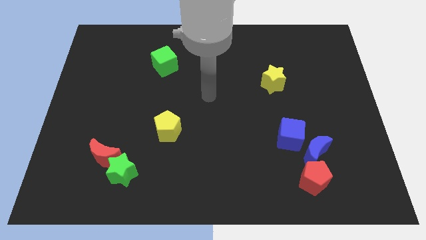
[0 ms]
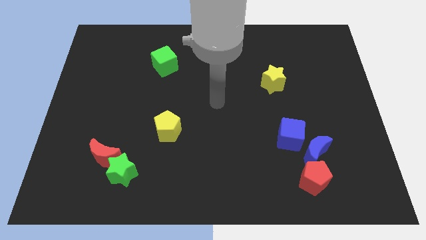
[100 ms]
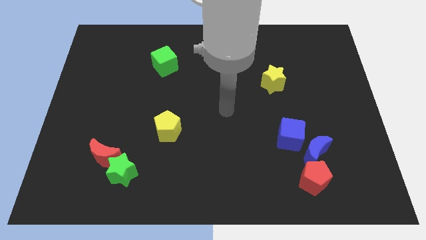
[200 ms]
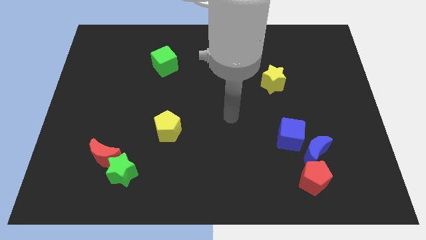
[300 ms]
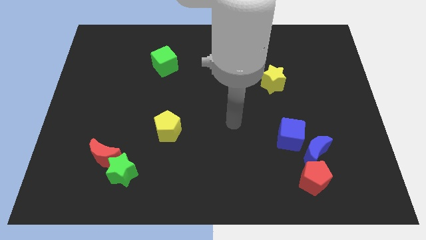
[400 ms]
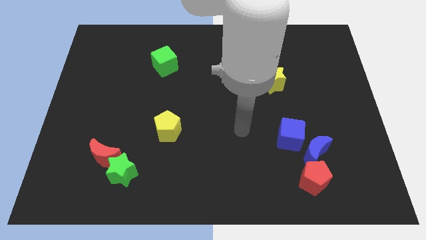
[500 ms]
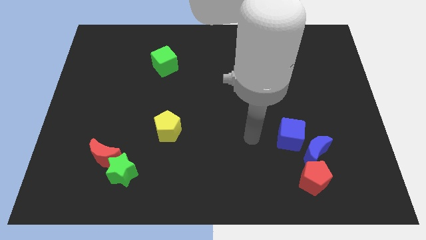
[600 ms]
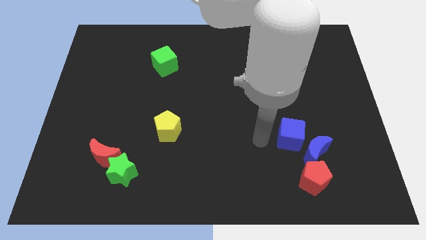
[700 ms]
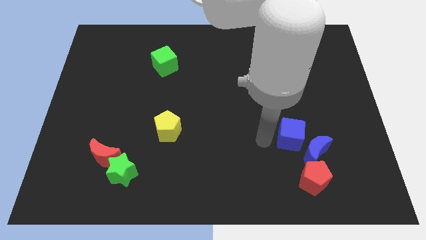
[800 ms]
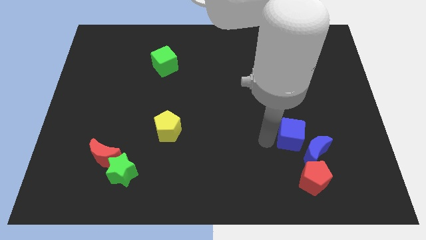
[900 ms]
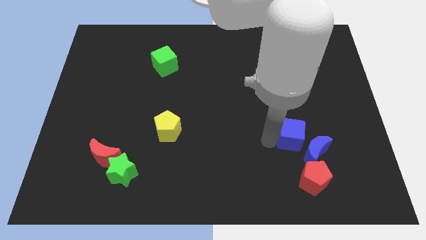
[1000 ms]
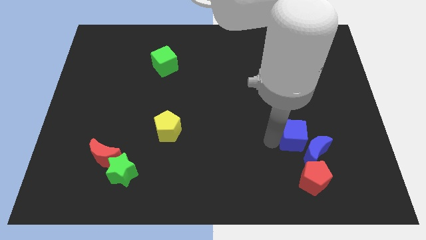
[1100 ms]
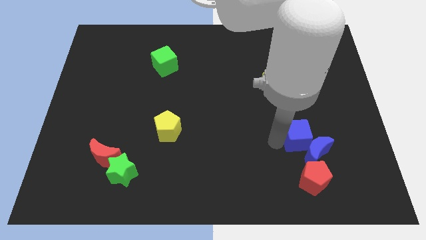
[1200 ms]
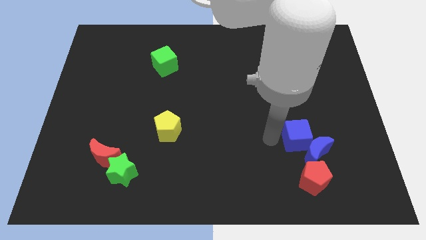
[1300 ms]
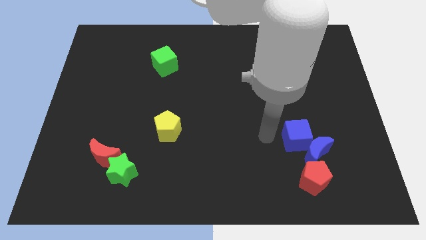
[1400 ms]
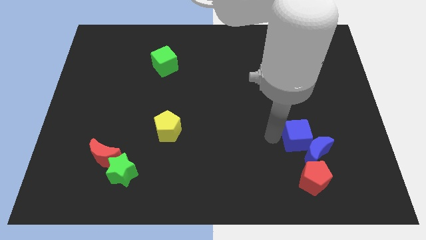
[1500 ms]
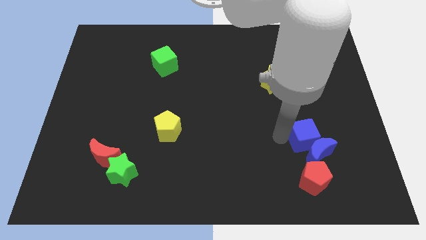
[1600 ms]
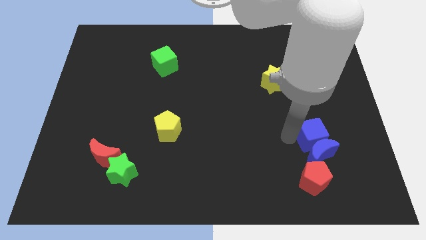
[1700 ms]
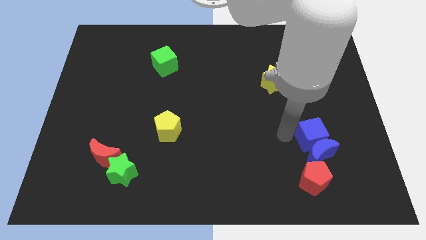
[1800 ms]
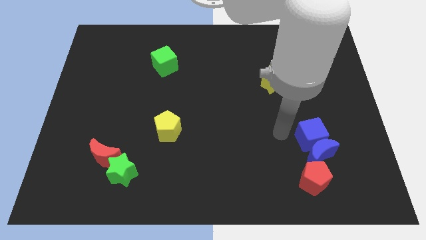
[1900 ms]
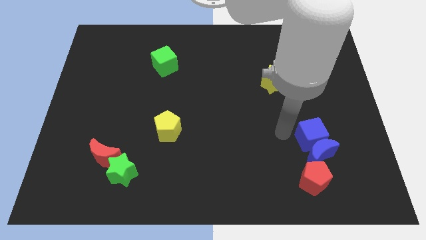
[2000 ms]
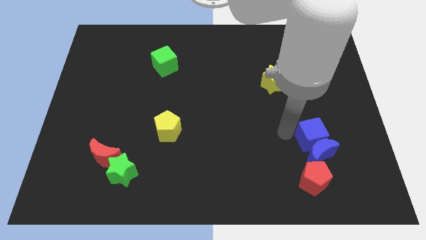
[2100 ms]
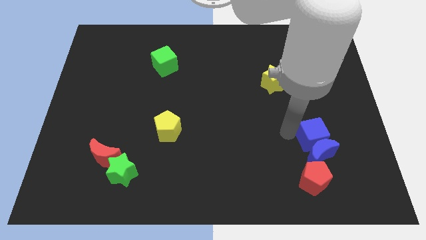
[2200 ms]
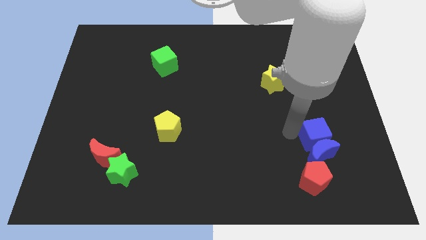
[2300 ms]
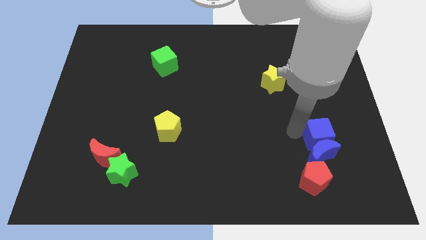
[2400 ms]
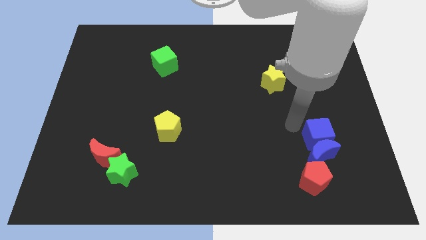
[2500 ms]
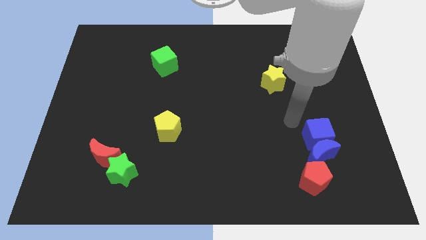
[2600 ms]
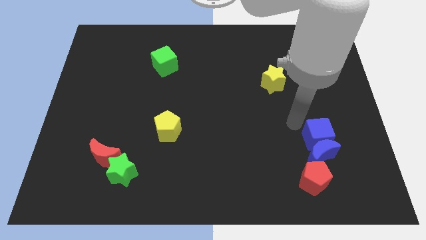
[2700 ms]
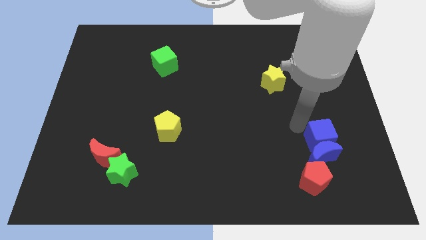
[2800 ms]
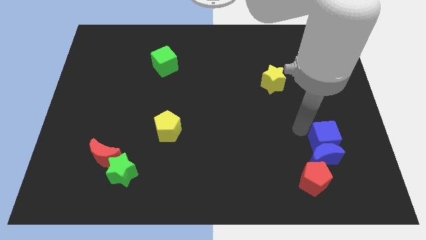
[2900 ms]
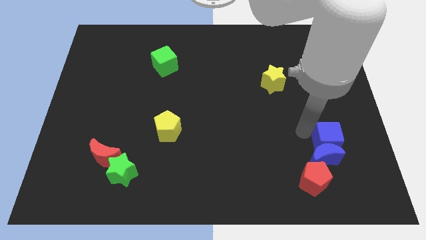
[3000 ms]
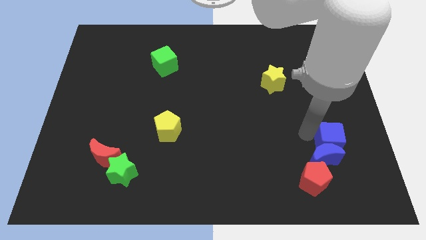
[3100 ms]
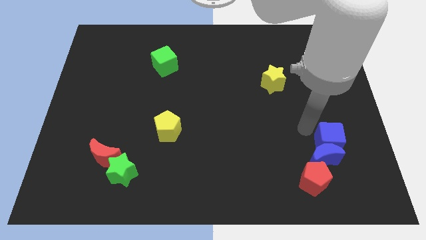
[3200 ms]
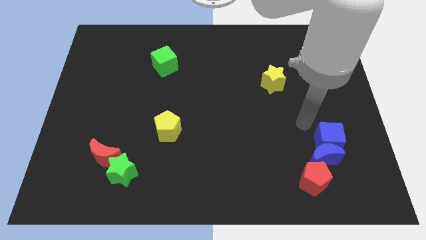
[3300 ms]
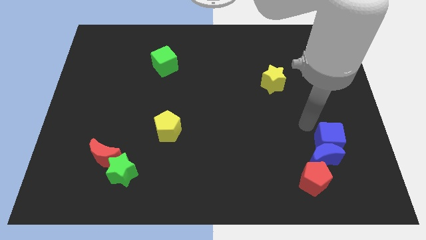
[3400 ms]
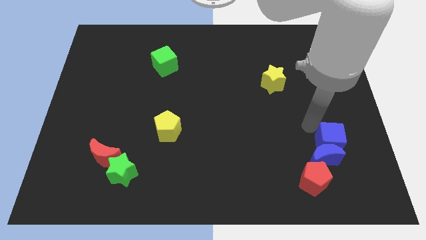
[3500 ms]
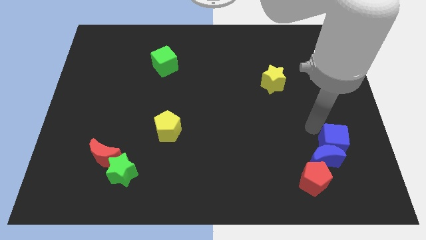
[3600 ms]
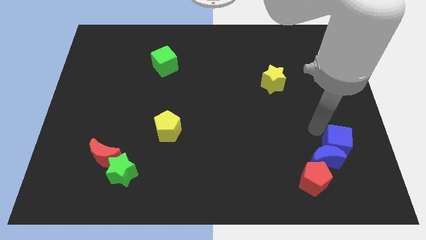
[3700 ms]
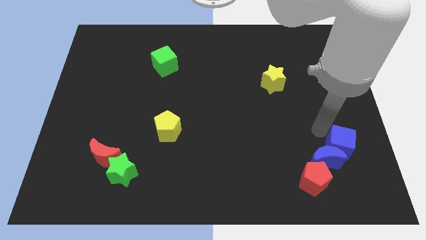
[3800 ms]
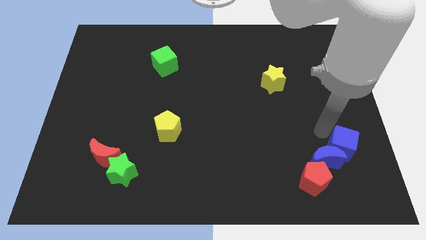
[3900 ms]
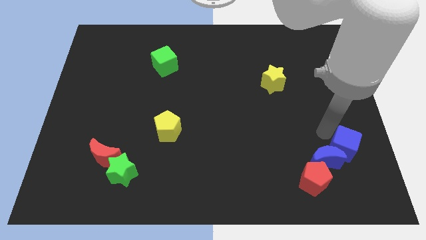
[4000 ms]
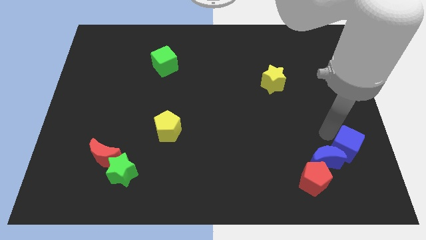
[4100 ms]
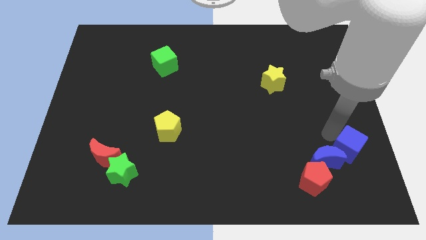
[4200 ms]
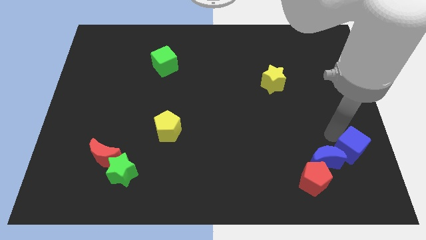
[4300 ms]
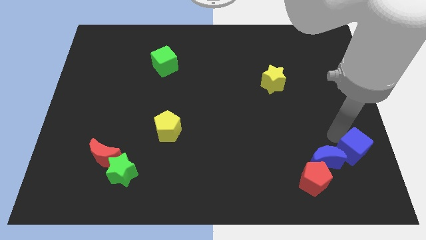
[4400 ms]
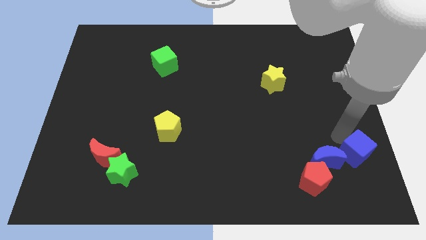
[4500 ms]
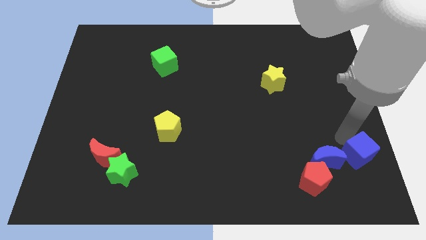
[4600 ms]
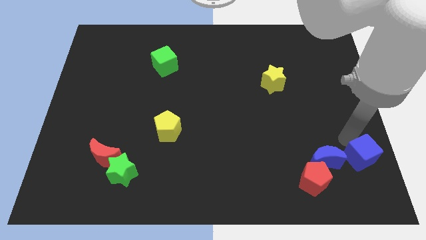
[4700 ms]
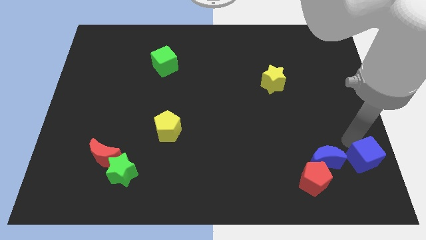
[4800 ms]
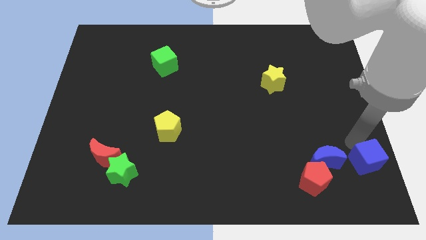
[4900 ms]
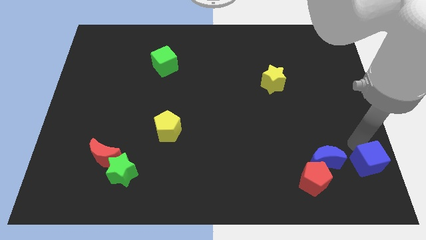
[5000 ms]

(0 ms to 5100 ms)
move the blue cube to the bottom right of the board
